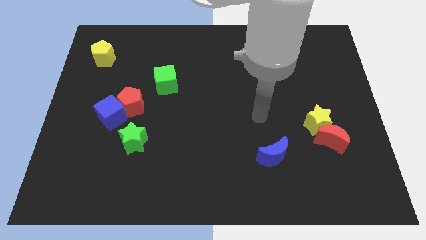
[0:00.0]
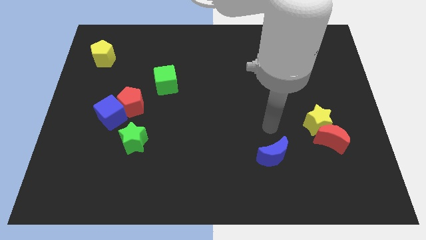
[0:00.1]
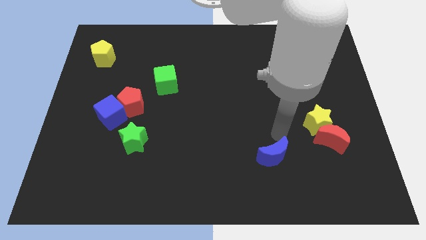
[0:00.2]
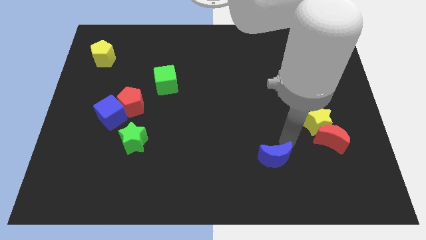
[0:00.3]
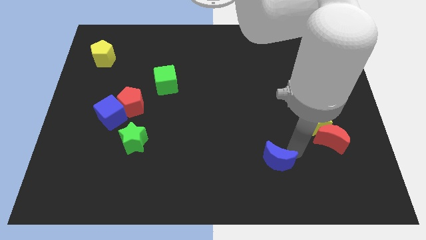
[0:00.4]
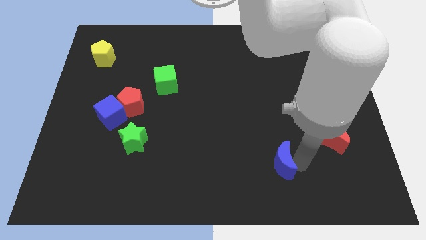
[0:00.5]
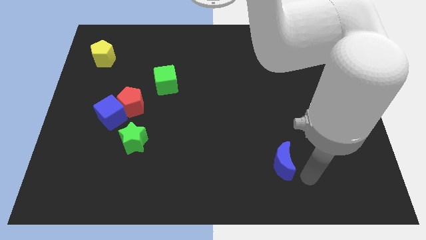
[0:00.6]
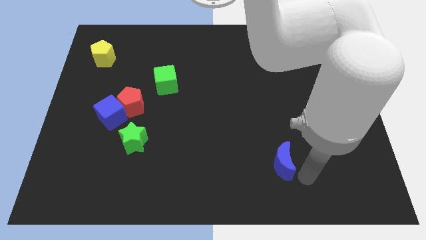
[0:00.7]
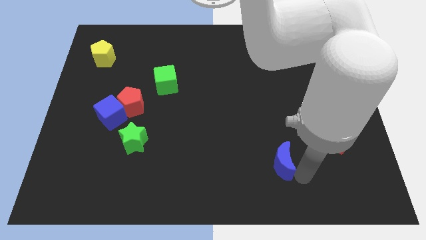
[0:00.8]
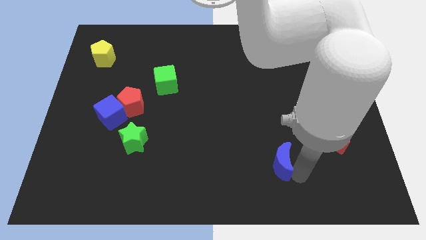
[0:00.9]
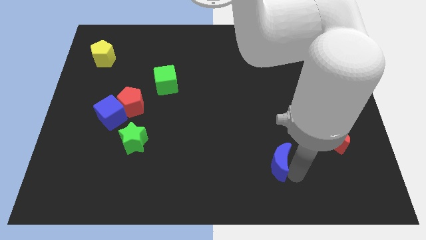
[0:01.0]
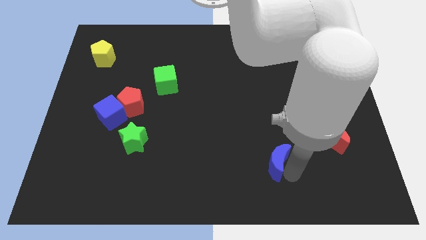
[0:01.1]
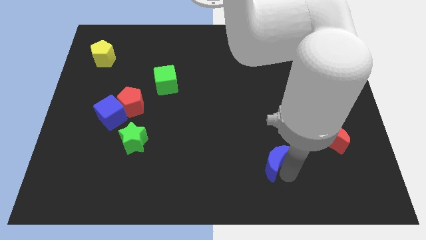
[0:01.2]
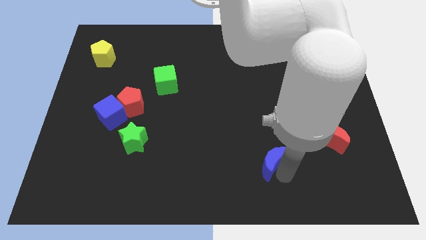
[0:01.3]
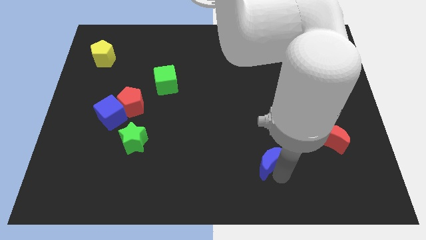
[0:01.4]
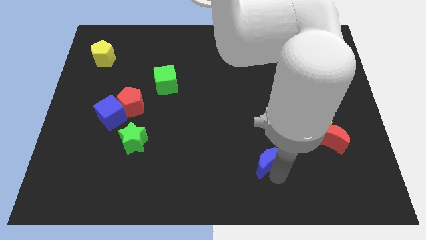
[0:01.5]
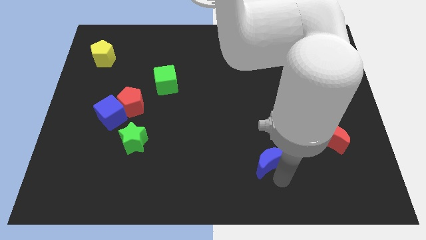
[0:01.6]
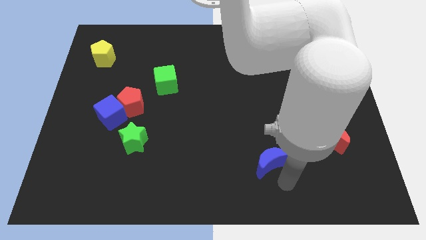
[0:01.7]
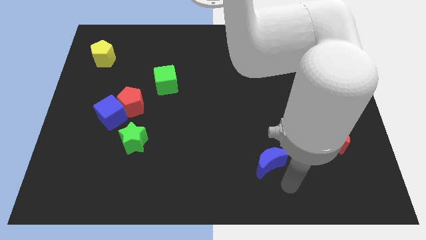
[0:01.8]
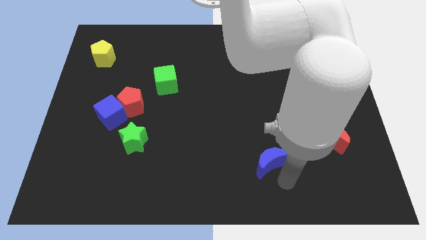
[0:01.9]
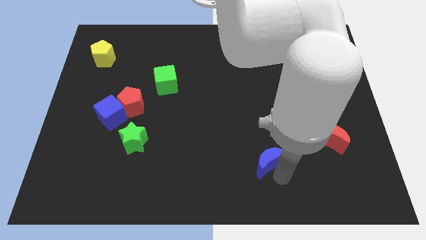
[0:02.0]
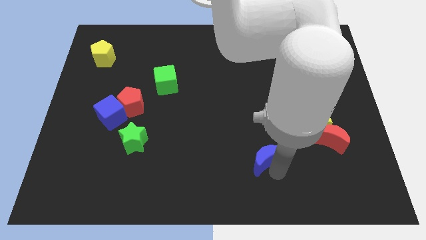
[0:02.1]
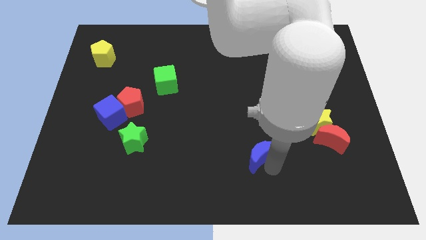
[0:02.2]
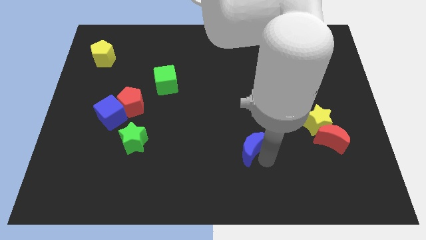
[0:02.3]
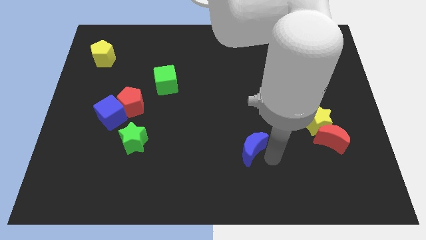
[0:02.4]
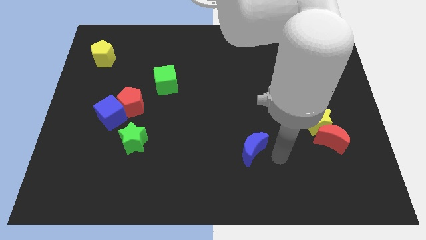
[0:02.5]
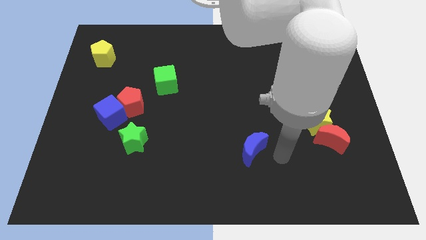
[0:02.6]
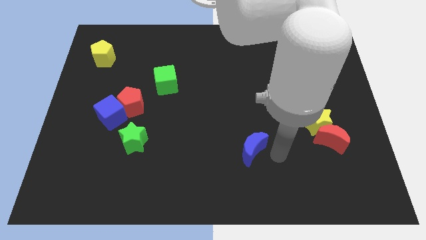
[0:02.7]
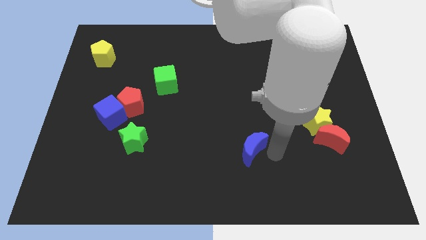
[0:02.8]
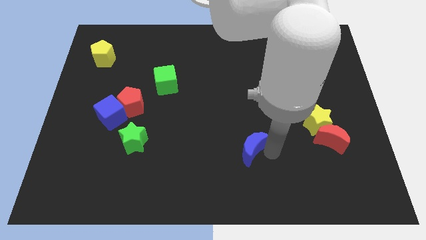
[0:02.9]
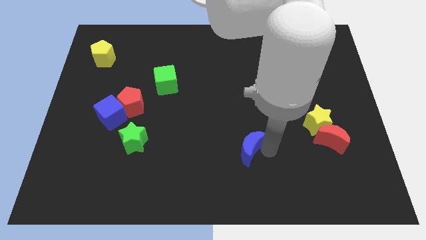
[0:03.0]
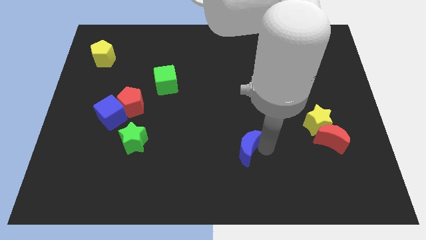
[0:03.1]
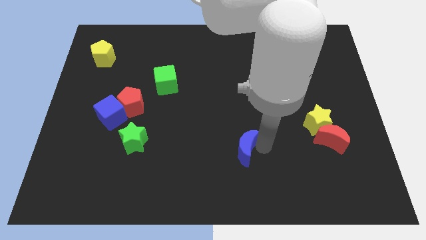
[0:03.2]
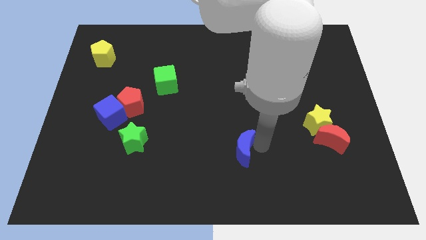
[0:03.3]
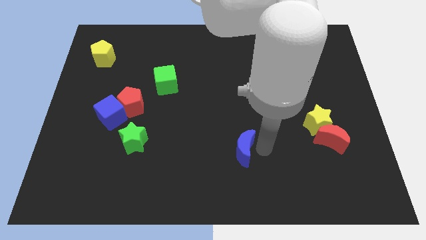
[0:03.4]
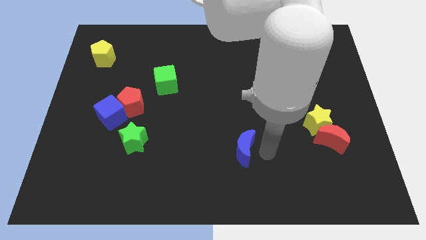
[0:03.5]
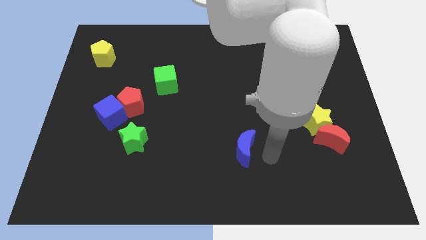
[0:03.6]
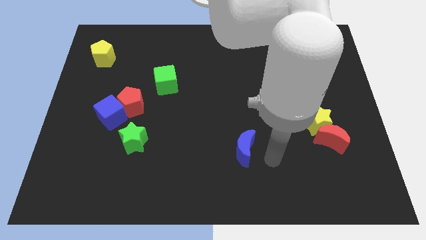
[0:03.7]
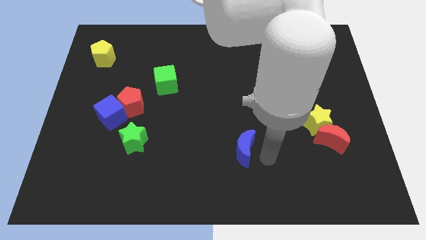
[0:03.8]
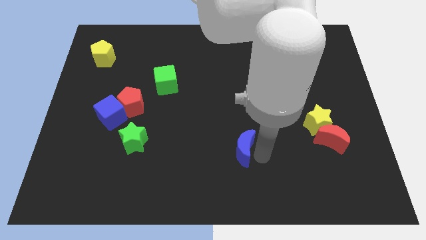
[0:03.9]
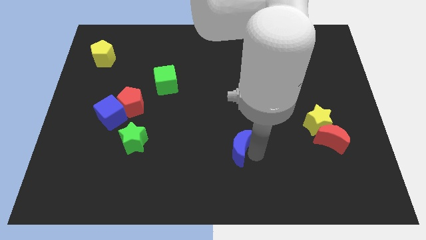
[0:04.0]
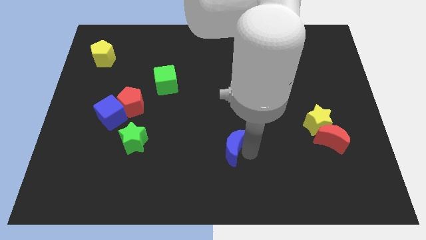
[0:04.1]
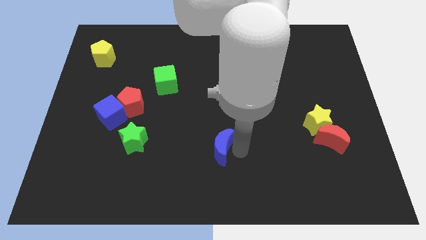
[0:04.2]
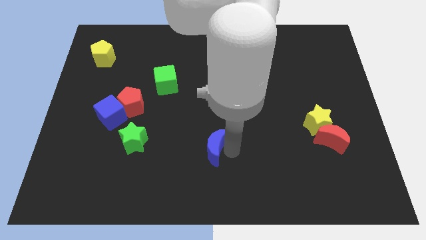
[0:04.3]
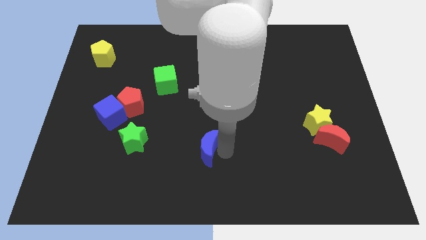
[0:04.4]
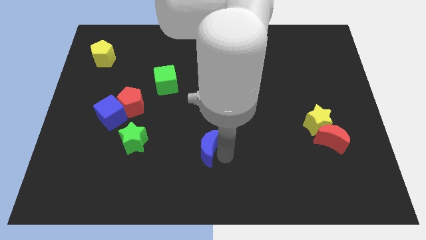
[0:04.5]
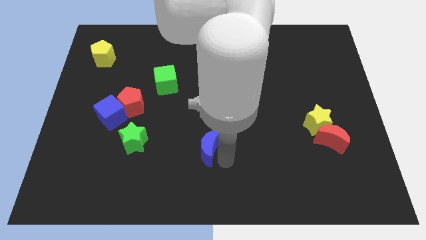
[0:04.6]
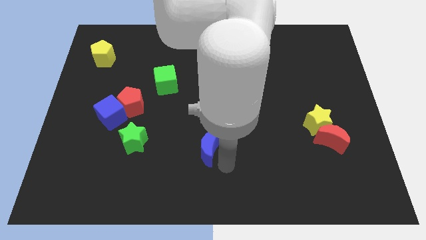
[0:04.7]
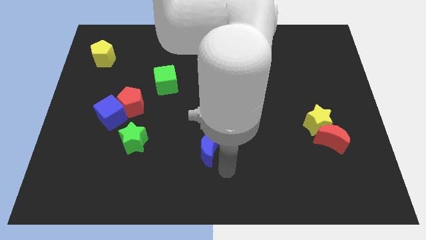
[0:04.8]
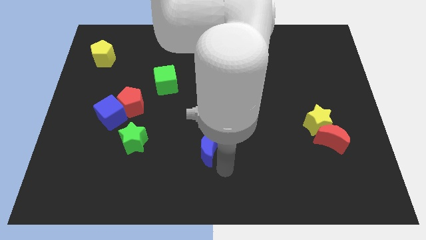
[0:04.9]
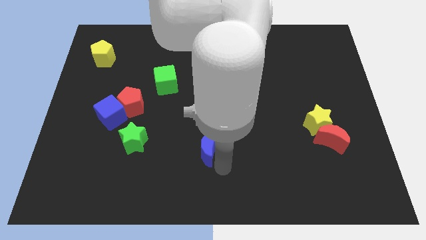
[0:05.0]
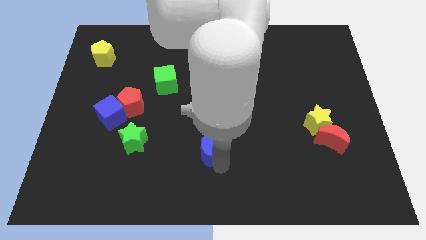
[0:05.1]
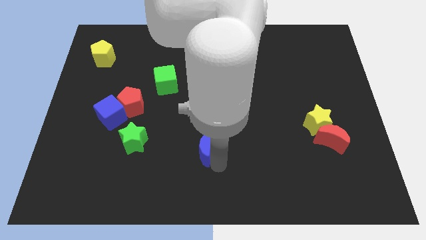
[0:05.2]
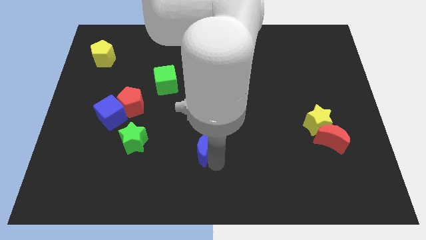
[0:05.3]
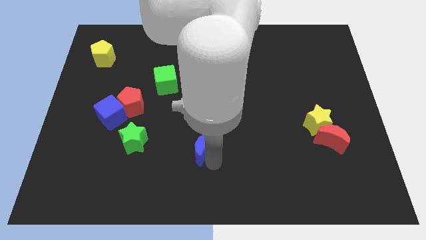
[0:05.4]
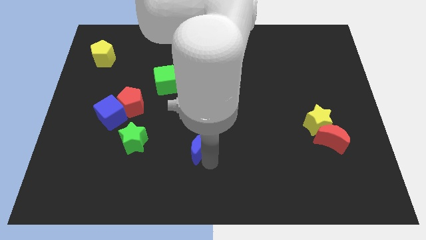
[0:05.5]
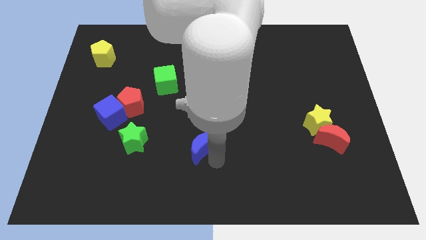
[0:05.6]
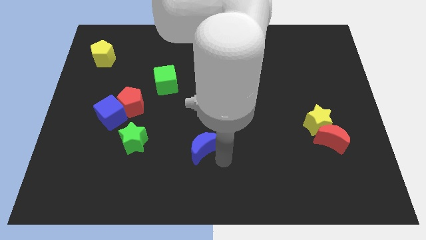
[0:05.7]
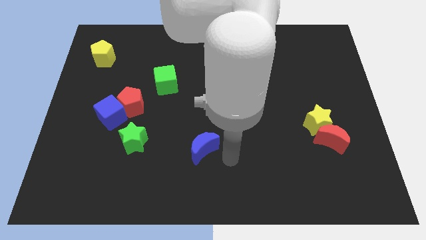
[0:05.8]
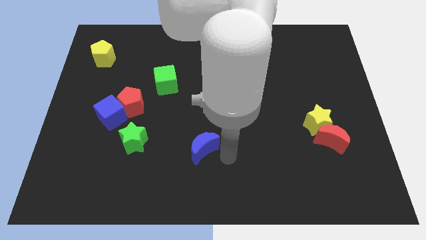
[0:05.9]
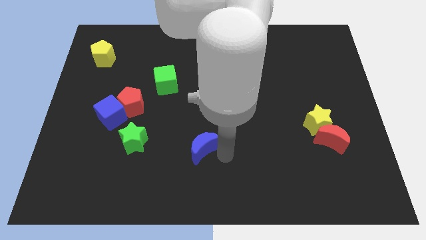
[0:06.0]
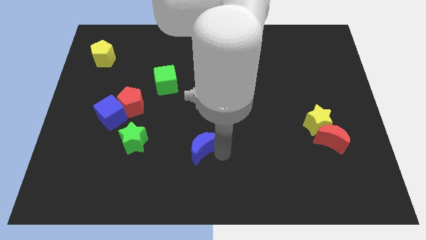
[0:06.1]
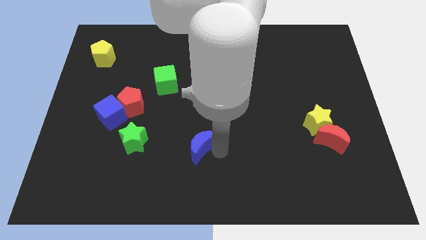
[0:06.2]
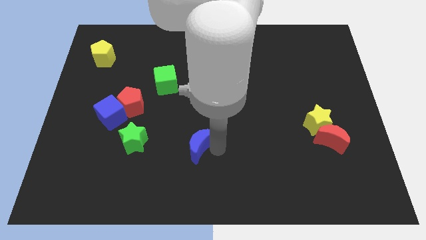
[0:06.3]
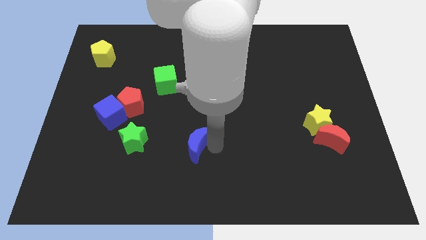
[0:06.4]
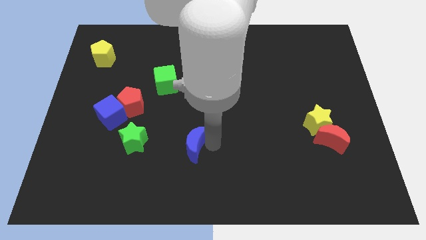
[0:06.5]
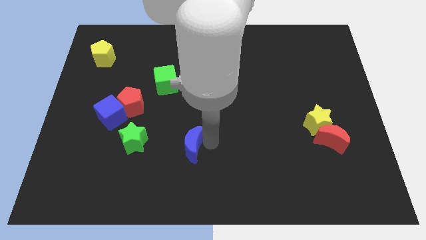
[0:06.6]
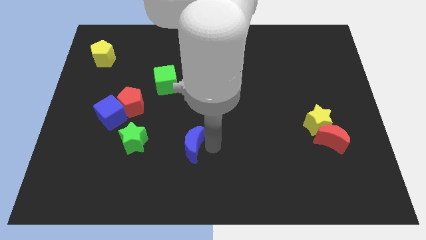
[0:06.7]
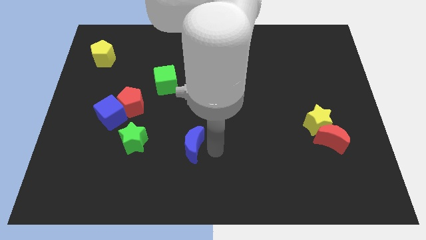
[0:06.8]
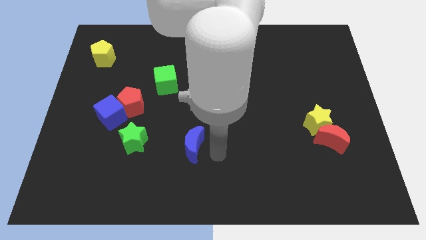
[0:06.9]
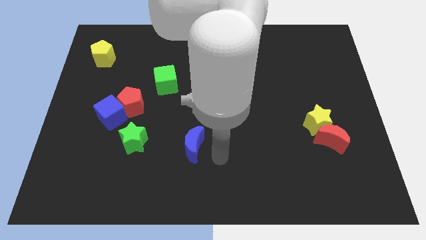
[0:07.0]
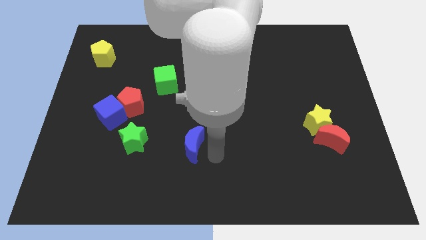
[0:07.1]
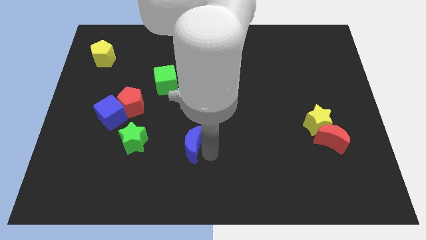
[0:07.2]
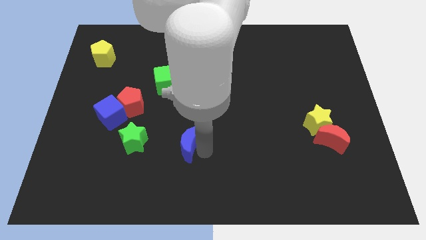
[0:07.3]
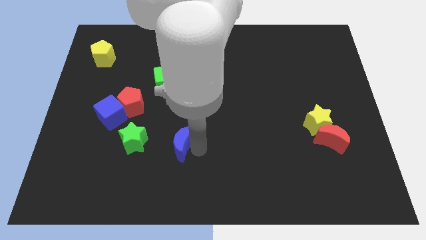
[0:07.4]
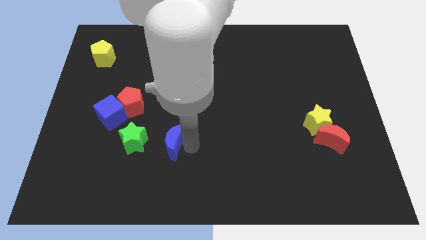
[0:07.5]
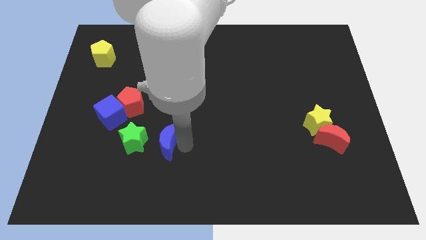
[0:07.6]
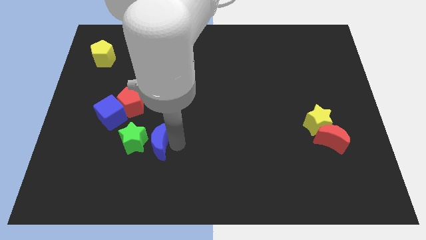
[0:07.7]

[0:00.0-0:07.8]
move the blue moon close to the green star
